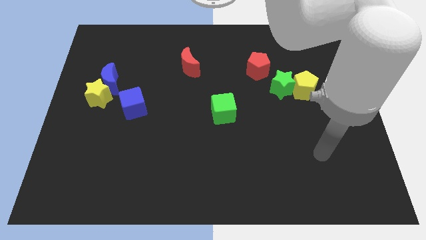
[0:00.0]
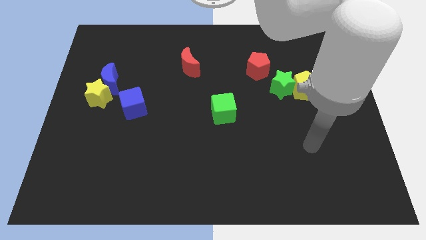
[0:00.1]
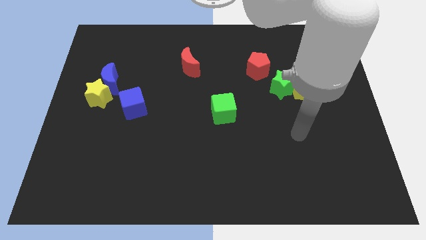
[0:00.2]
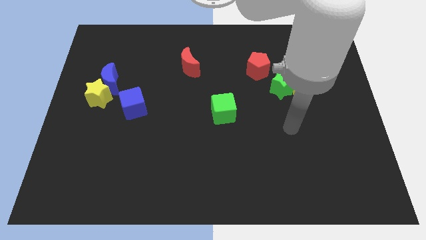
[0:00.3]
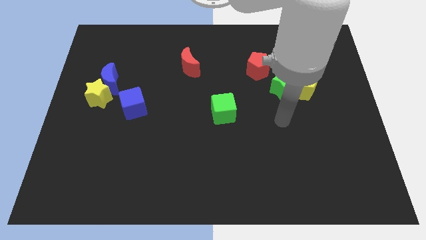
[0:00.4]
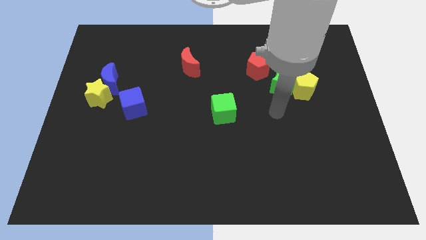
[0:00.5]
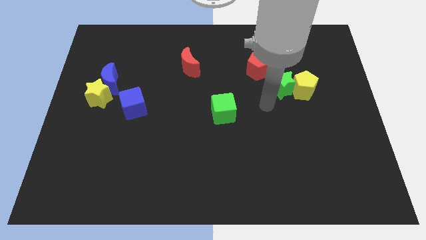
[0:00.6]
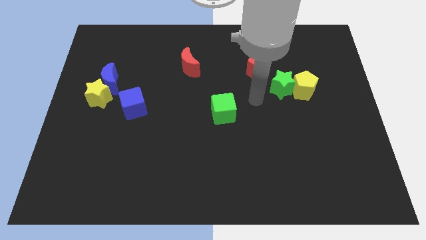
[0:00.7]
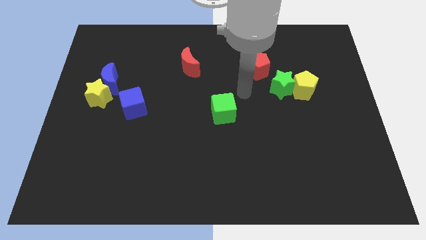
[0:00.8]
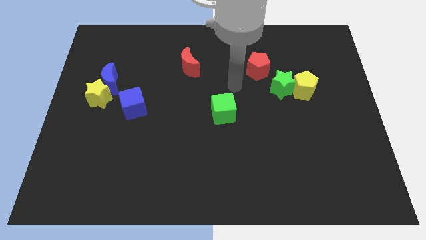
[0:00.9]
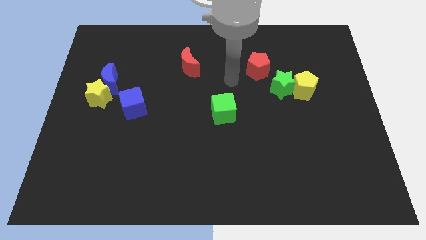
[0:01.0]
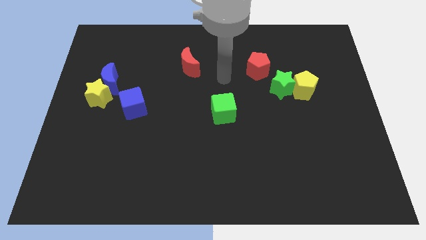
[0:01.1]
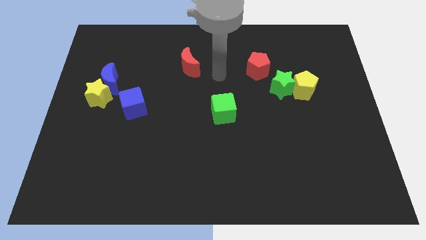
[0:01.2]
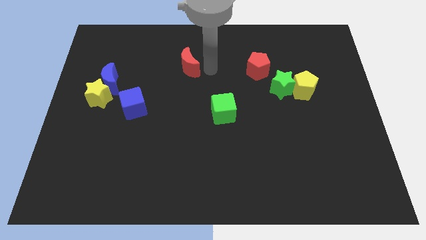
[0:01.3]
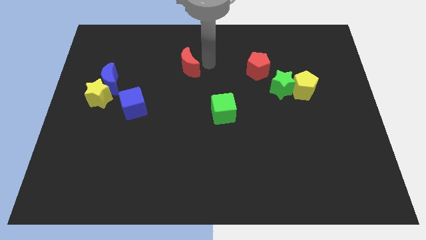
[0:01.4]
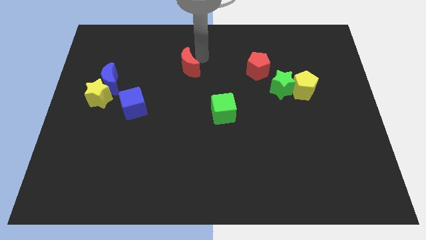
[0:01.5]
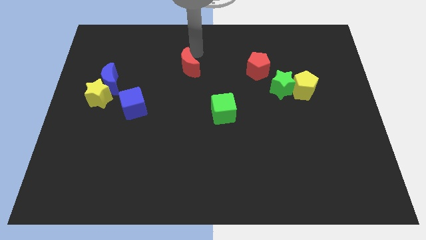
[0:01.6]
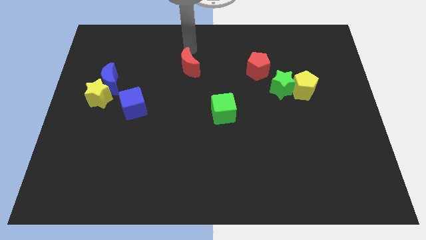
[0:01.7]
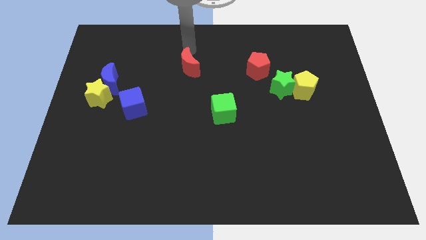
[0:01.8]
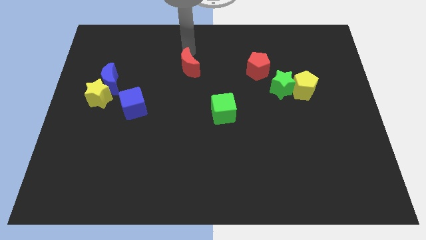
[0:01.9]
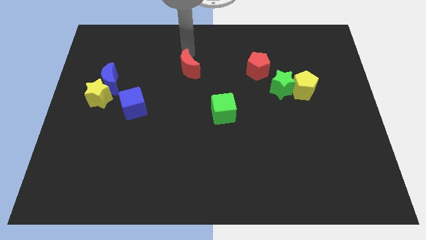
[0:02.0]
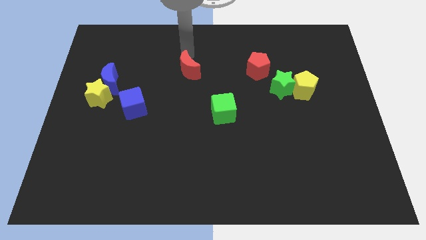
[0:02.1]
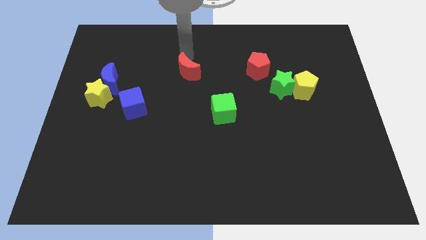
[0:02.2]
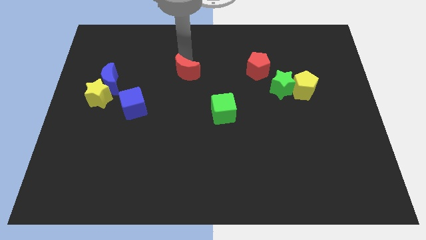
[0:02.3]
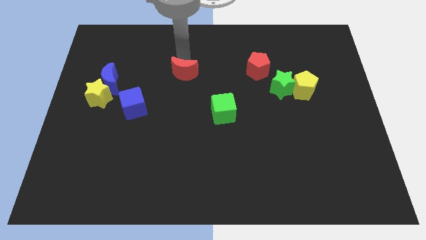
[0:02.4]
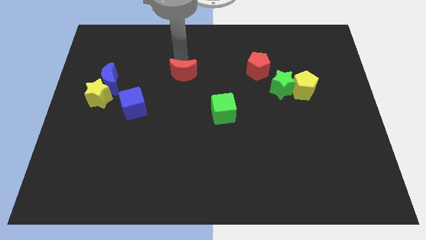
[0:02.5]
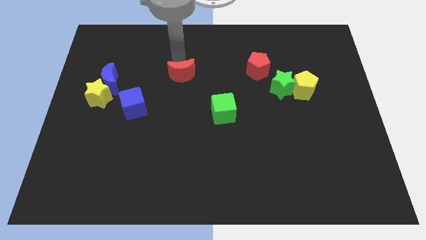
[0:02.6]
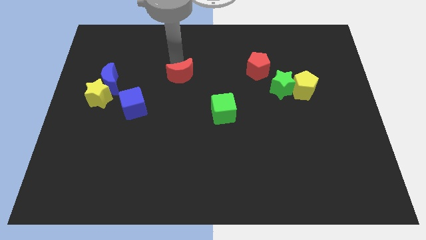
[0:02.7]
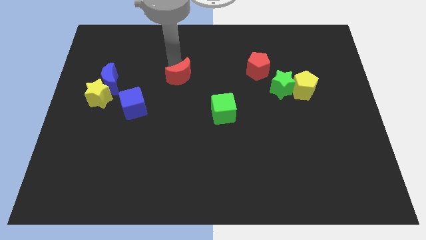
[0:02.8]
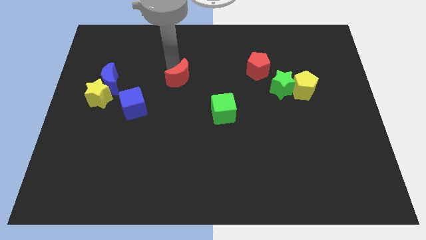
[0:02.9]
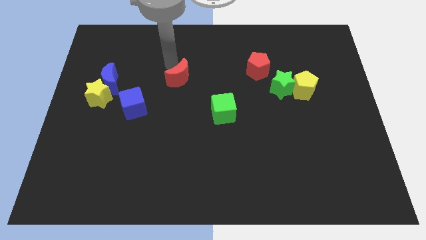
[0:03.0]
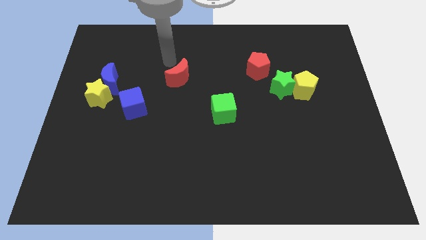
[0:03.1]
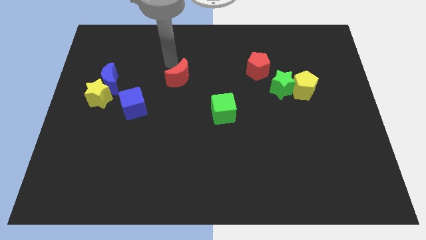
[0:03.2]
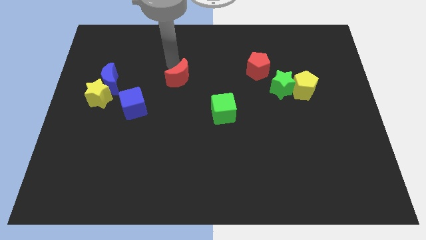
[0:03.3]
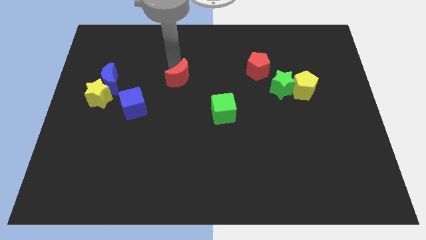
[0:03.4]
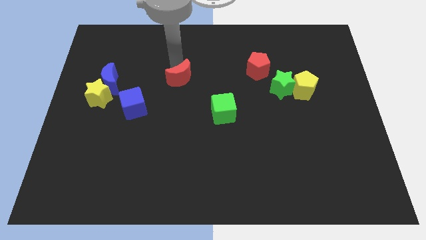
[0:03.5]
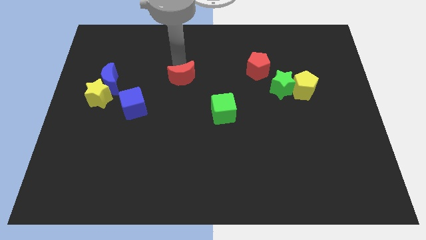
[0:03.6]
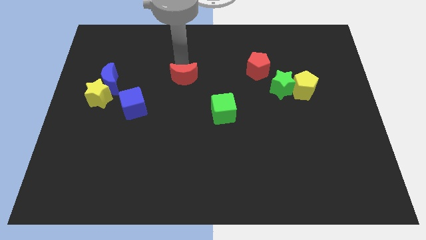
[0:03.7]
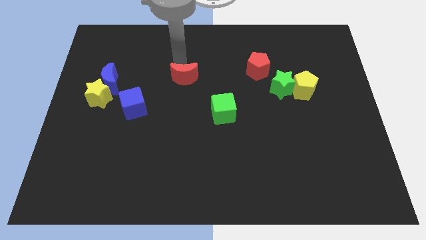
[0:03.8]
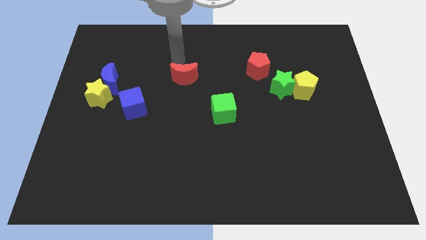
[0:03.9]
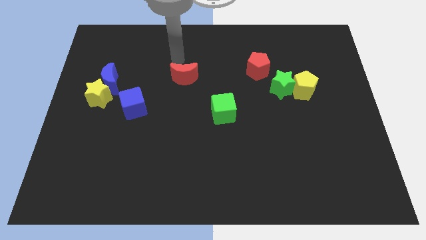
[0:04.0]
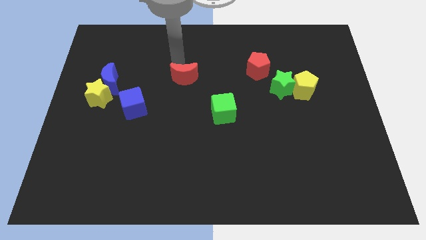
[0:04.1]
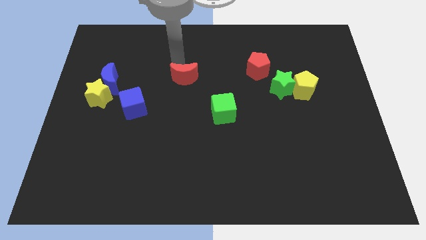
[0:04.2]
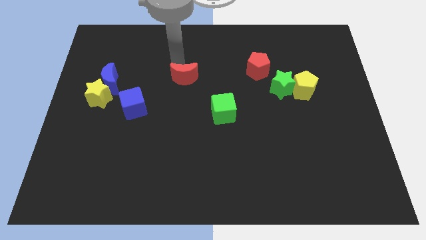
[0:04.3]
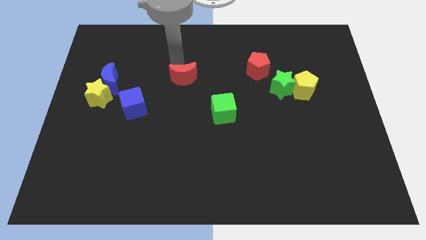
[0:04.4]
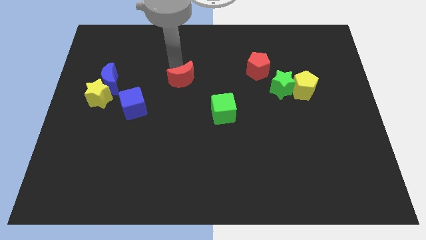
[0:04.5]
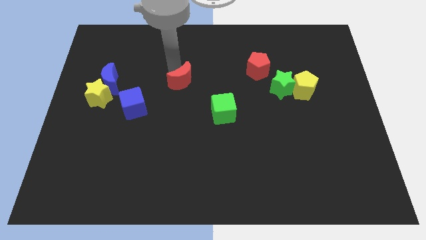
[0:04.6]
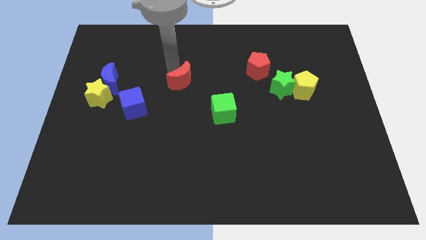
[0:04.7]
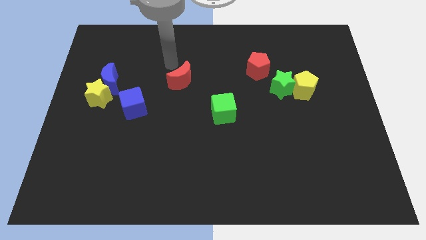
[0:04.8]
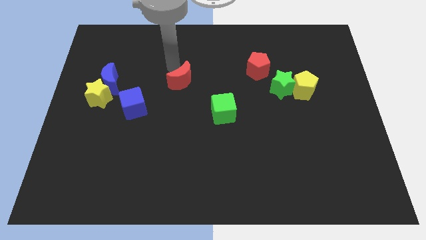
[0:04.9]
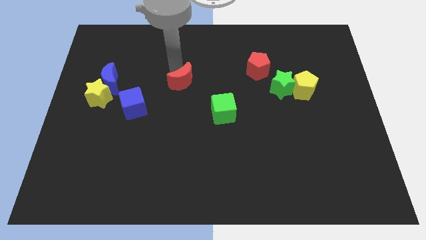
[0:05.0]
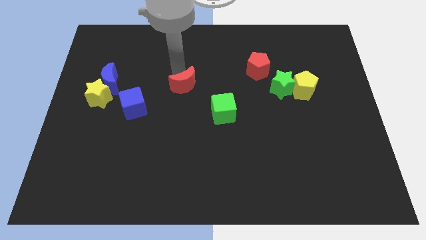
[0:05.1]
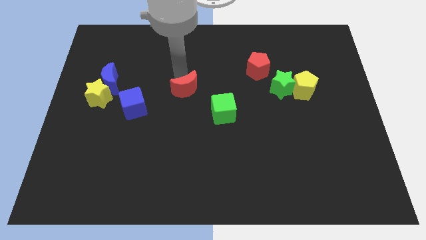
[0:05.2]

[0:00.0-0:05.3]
push the red moon a little bit down

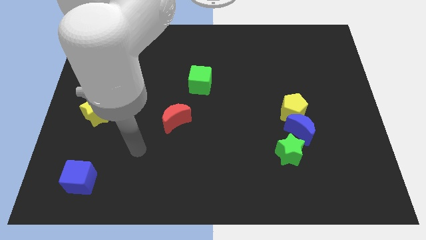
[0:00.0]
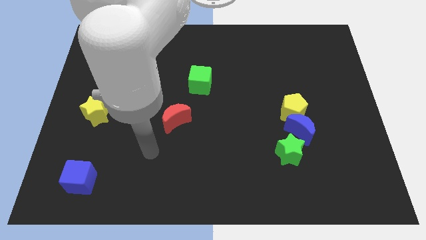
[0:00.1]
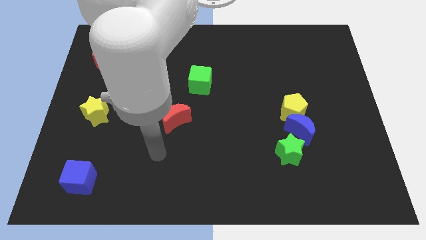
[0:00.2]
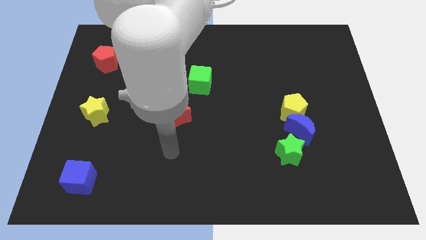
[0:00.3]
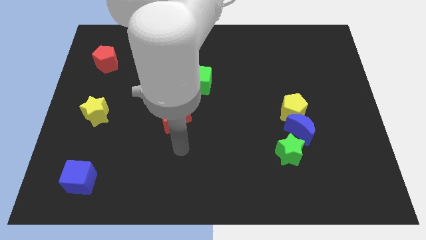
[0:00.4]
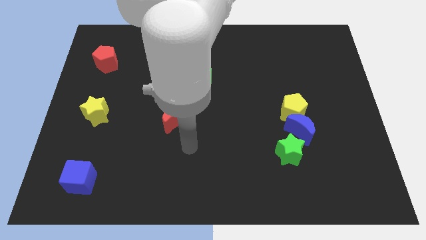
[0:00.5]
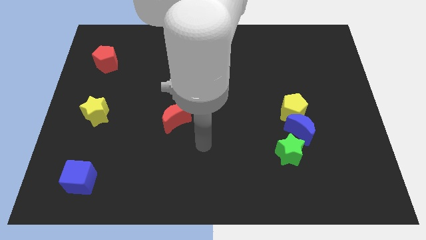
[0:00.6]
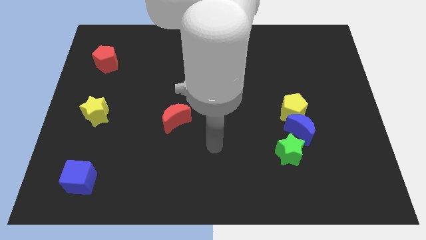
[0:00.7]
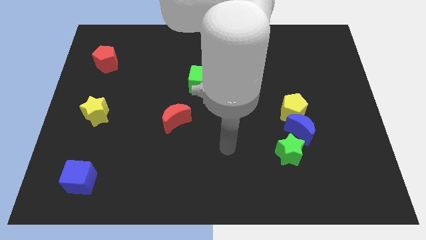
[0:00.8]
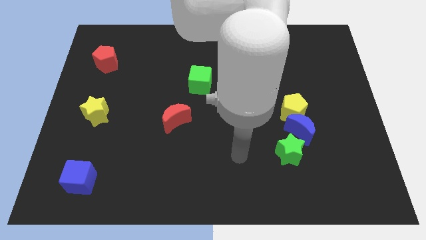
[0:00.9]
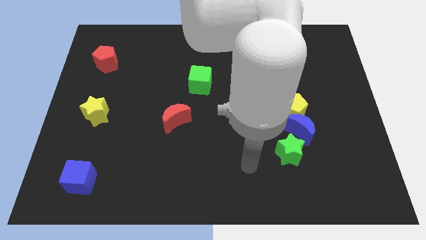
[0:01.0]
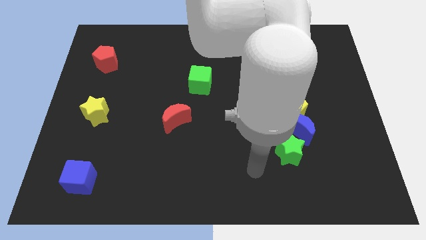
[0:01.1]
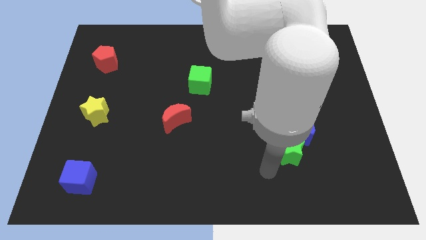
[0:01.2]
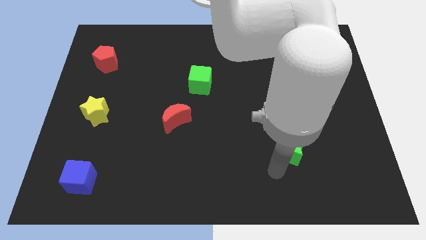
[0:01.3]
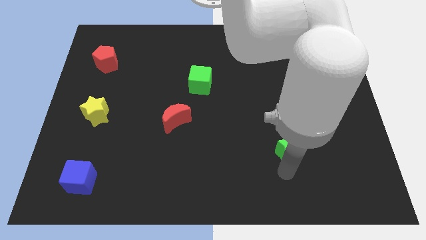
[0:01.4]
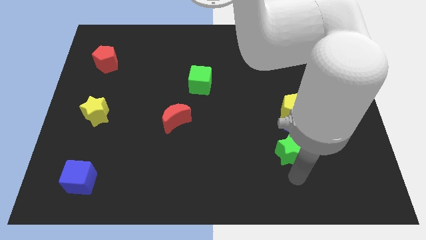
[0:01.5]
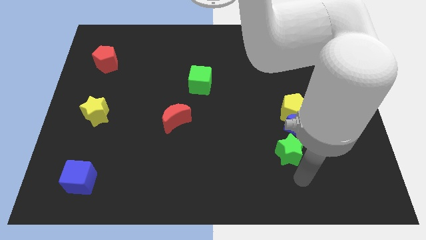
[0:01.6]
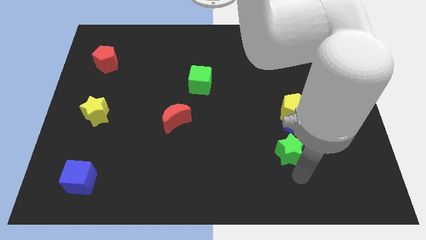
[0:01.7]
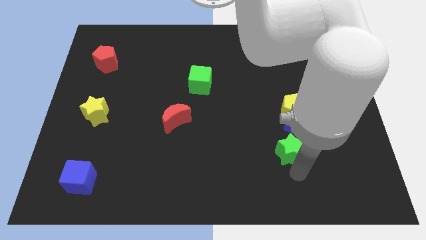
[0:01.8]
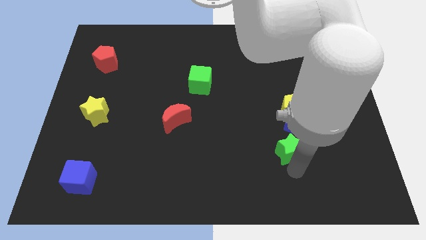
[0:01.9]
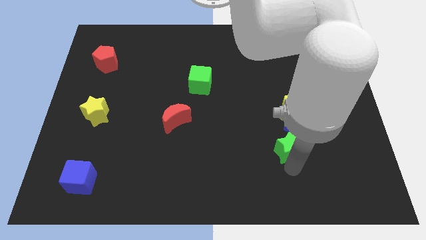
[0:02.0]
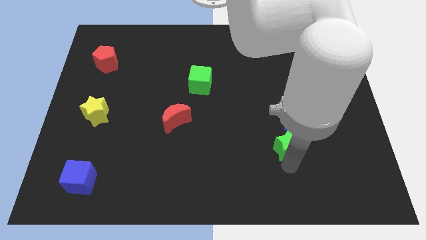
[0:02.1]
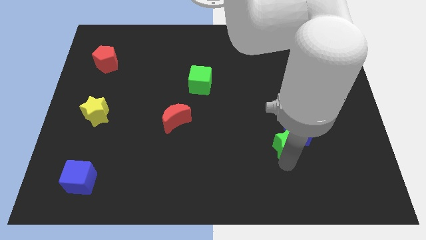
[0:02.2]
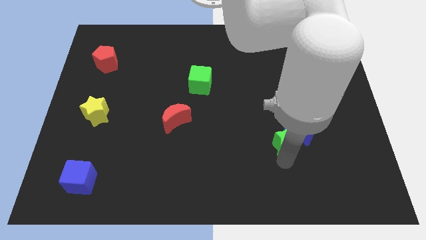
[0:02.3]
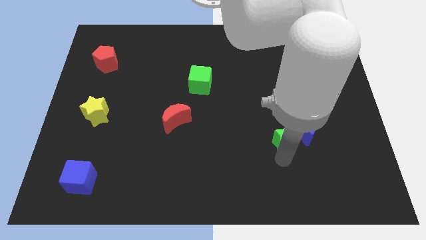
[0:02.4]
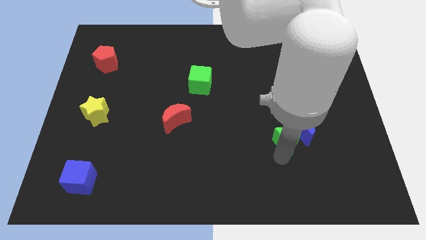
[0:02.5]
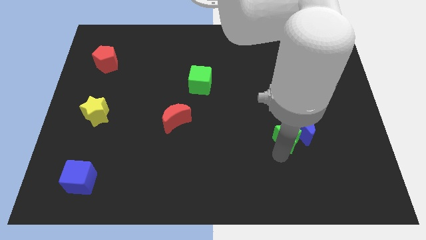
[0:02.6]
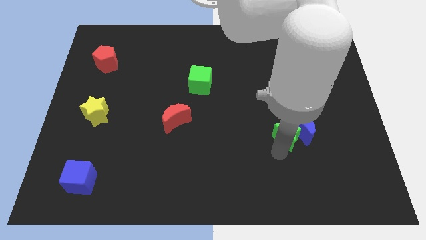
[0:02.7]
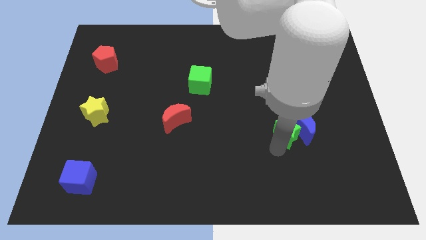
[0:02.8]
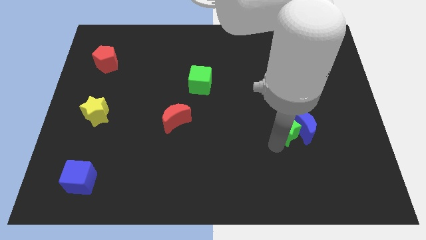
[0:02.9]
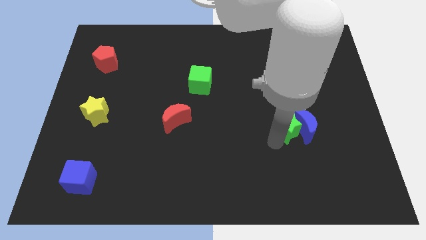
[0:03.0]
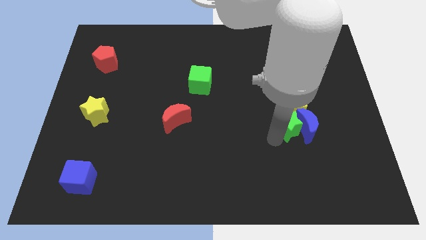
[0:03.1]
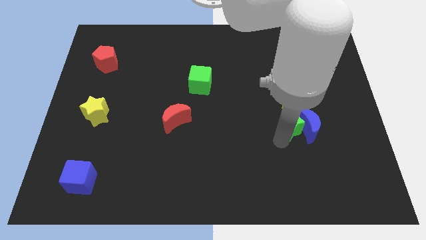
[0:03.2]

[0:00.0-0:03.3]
move the green star a bit up
